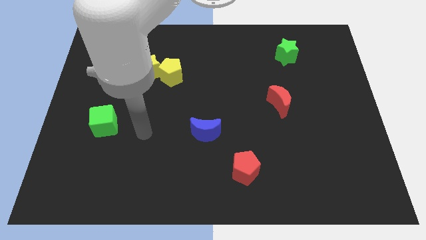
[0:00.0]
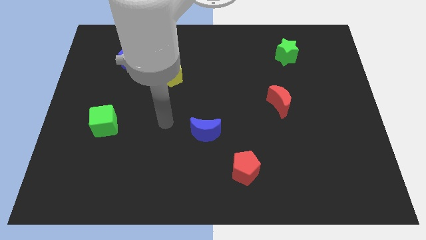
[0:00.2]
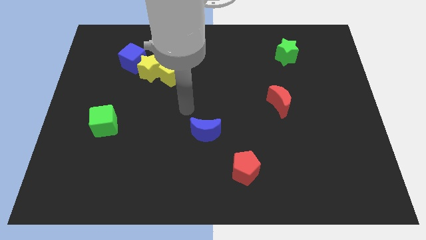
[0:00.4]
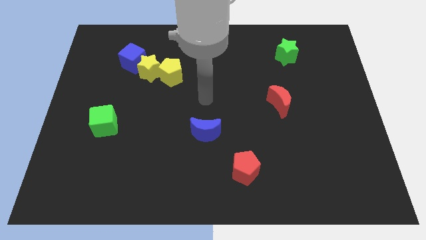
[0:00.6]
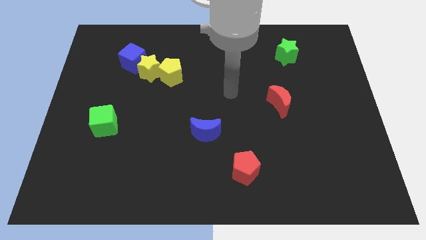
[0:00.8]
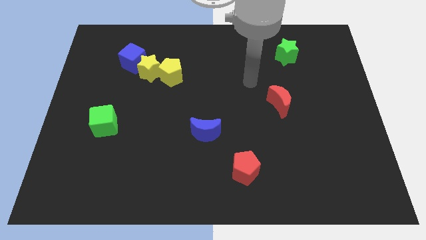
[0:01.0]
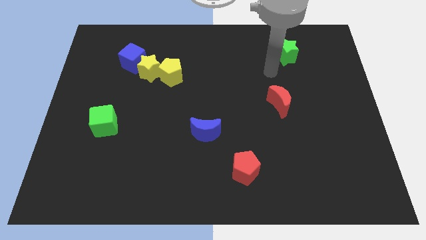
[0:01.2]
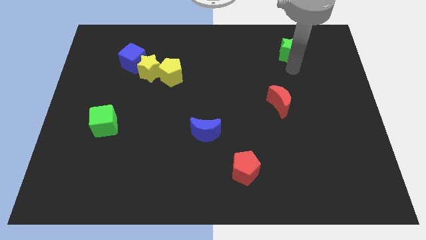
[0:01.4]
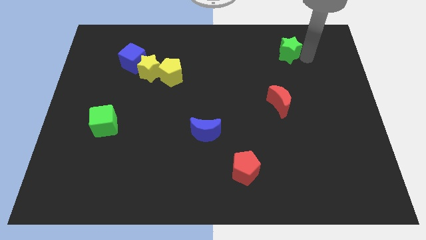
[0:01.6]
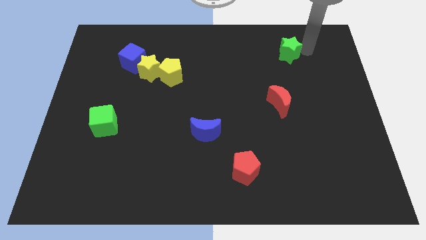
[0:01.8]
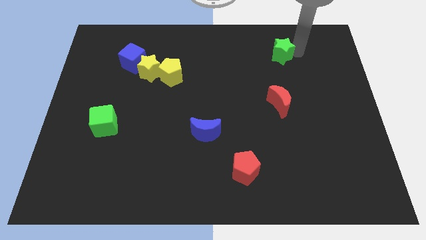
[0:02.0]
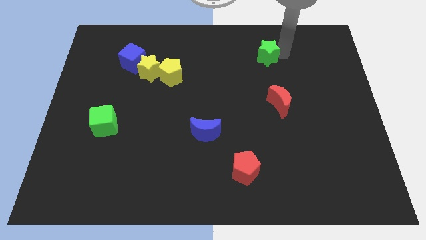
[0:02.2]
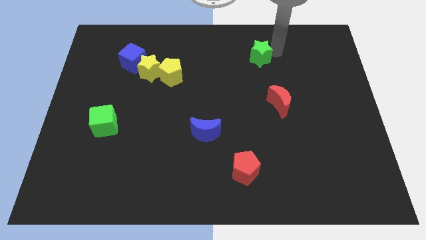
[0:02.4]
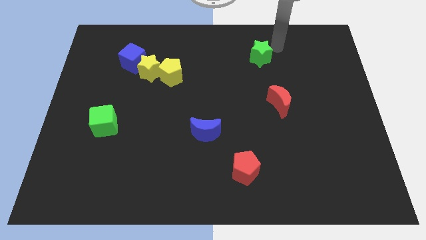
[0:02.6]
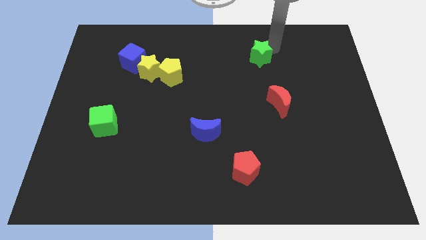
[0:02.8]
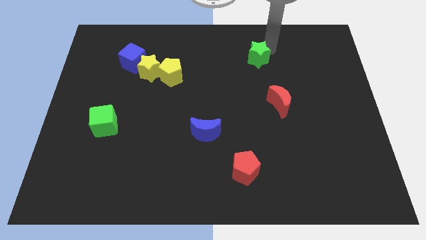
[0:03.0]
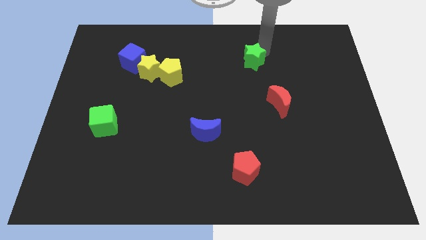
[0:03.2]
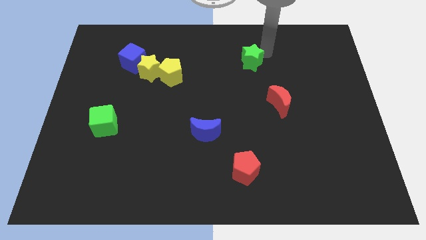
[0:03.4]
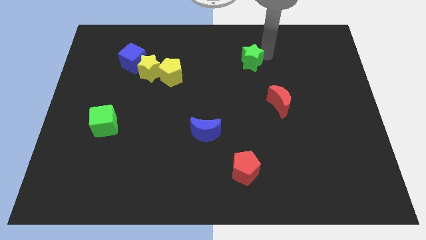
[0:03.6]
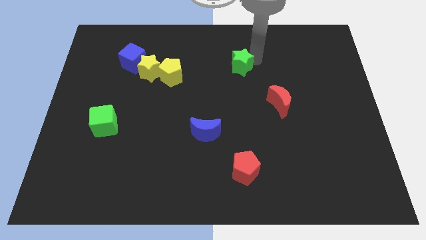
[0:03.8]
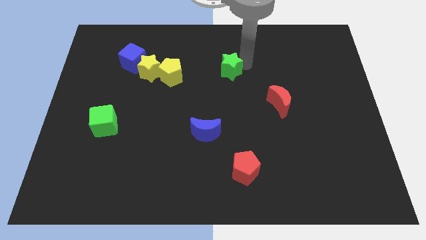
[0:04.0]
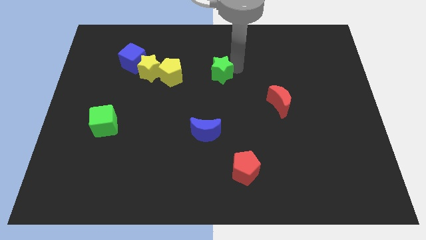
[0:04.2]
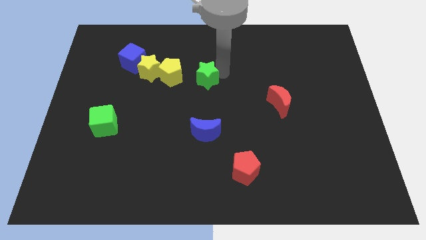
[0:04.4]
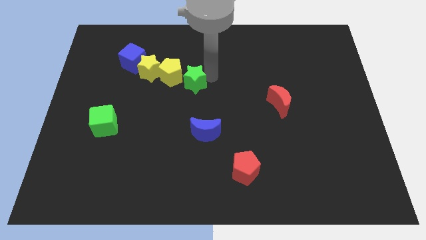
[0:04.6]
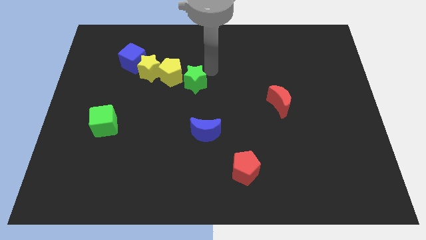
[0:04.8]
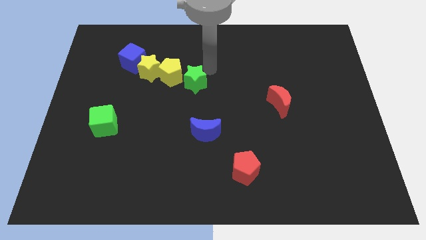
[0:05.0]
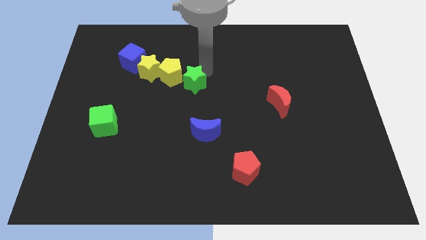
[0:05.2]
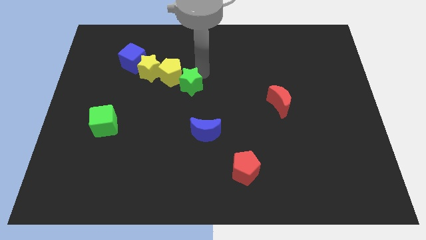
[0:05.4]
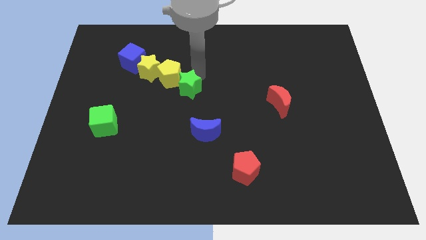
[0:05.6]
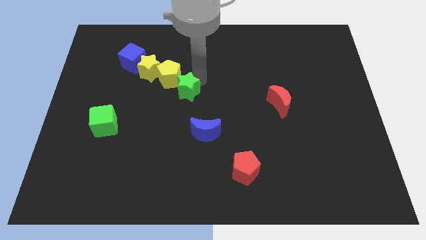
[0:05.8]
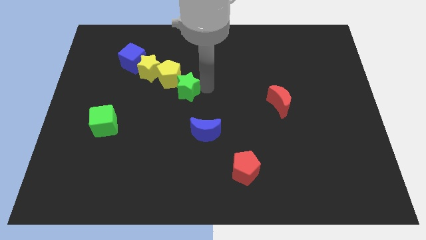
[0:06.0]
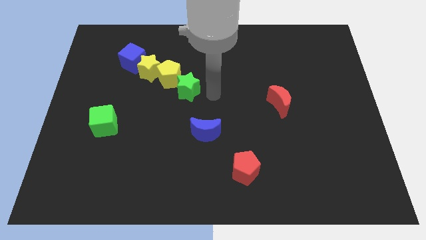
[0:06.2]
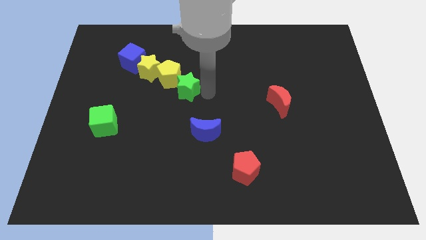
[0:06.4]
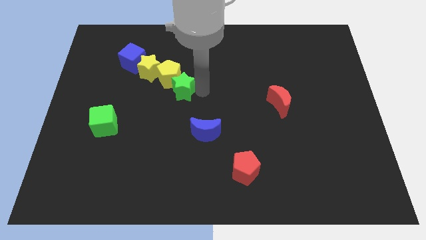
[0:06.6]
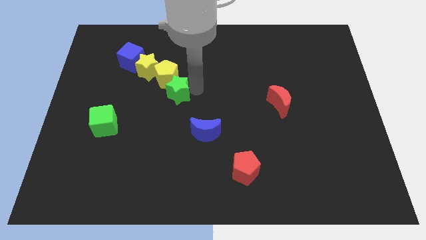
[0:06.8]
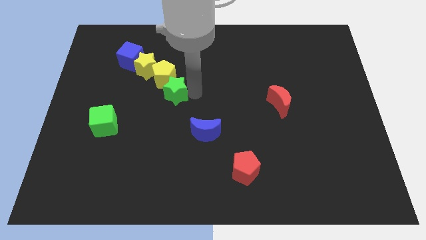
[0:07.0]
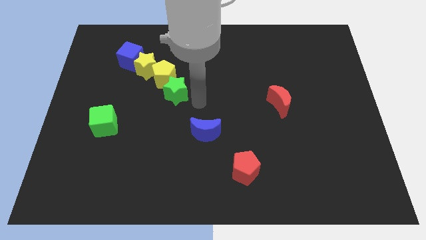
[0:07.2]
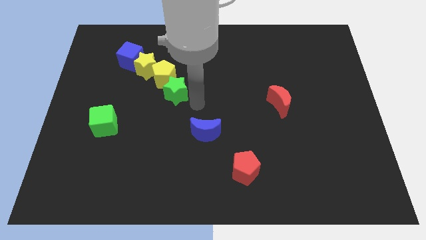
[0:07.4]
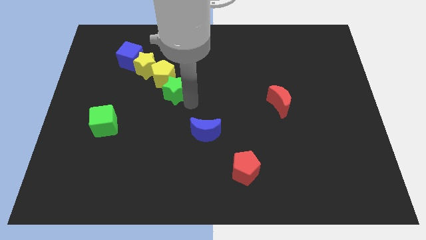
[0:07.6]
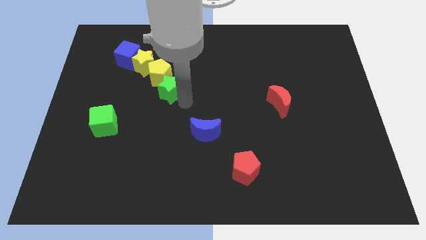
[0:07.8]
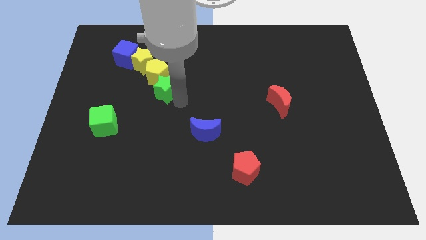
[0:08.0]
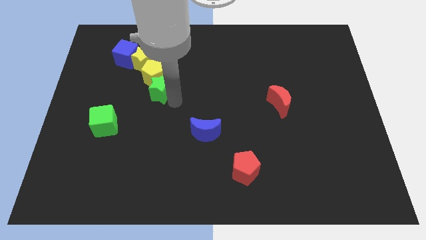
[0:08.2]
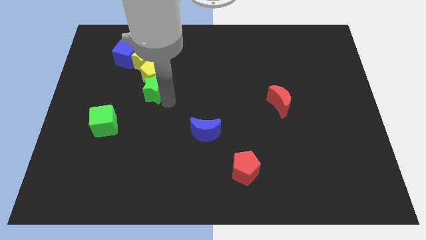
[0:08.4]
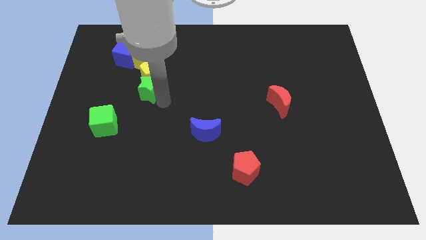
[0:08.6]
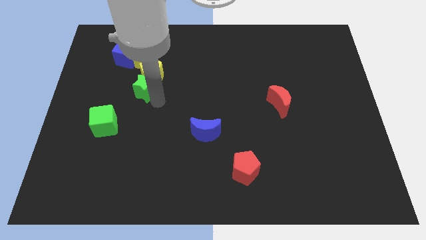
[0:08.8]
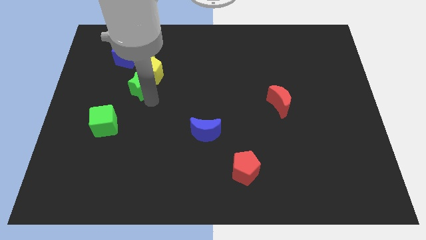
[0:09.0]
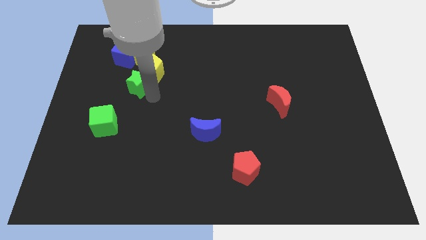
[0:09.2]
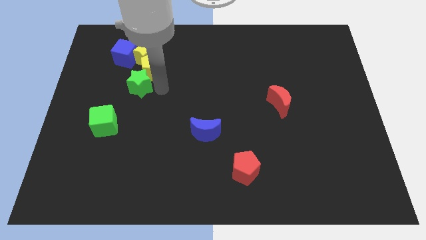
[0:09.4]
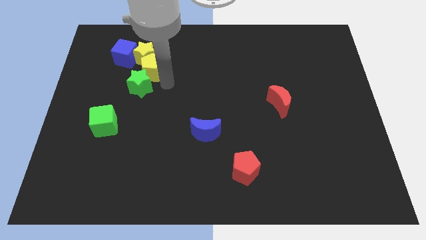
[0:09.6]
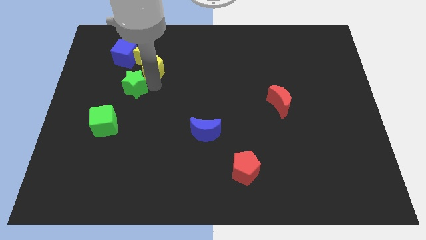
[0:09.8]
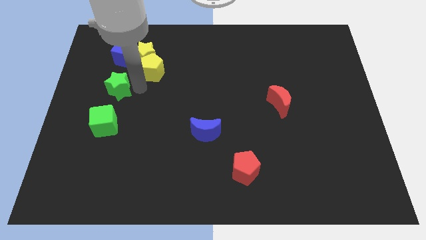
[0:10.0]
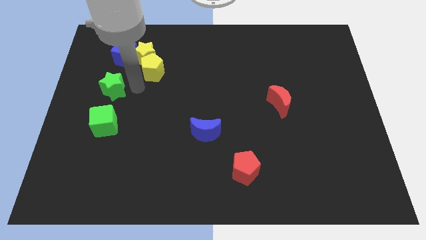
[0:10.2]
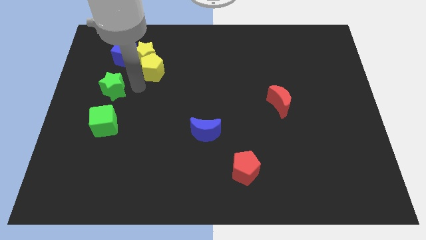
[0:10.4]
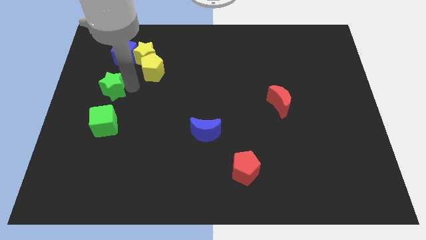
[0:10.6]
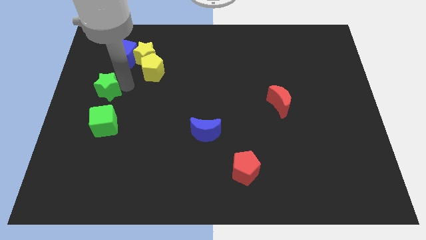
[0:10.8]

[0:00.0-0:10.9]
push the green star to the left side

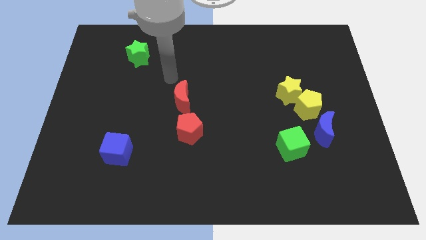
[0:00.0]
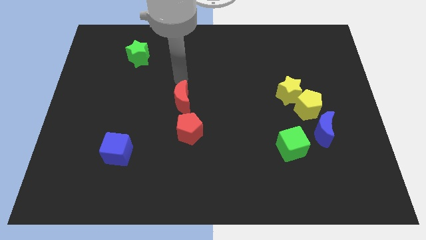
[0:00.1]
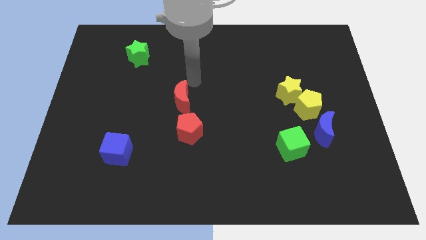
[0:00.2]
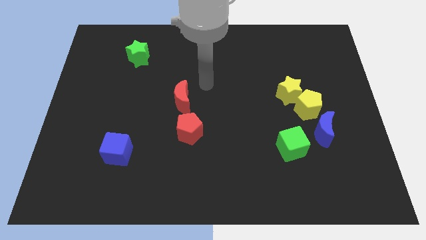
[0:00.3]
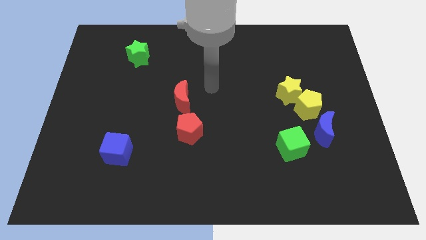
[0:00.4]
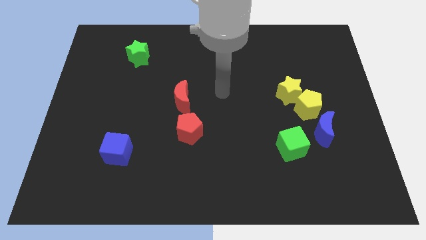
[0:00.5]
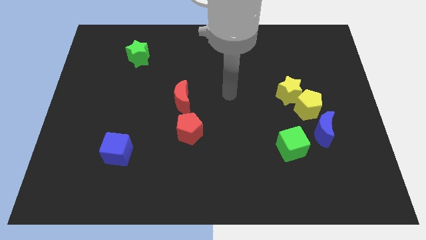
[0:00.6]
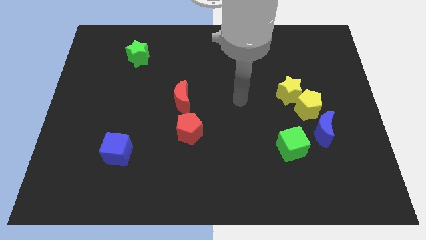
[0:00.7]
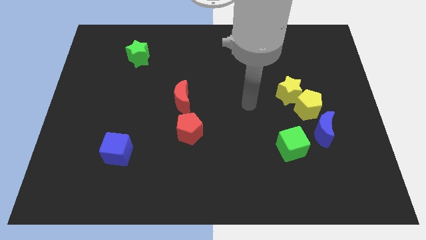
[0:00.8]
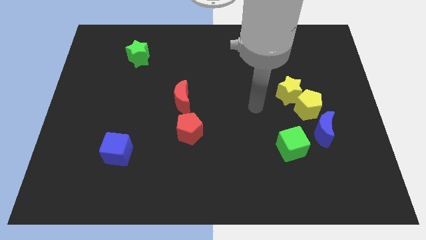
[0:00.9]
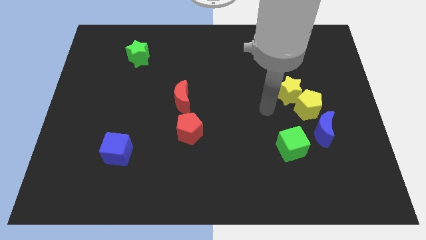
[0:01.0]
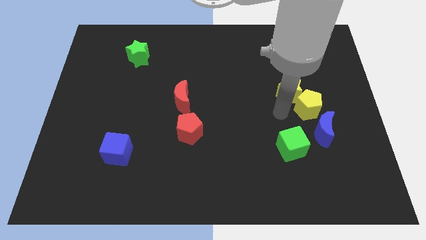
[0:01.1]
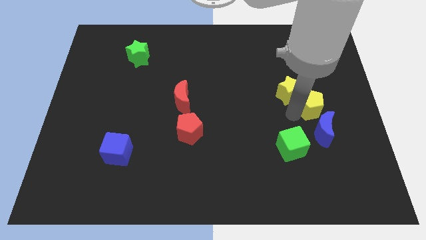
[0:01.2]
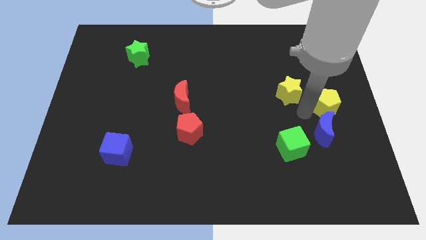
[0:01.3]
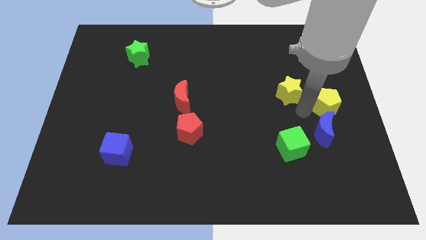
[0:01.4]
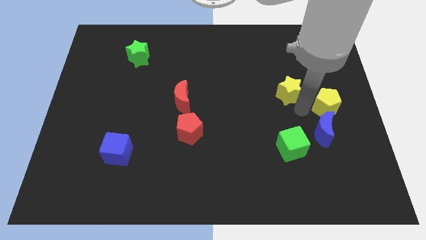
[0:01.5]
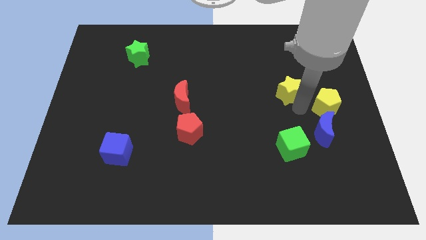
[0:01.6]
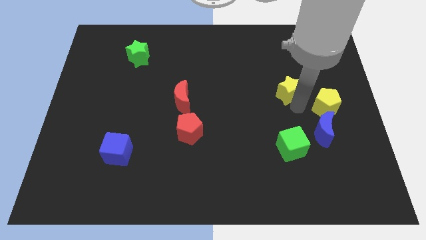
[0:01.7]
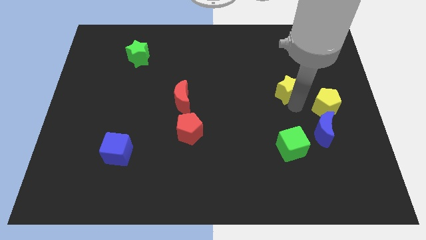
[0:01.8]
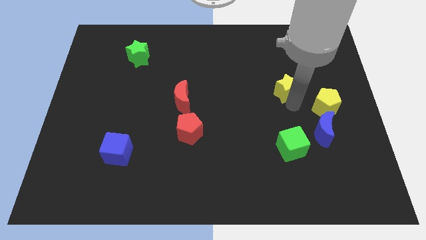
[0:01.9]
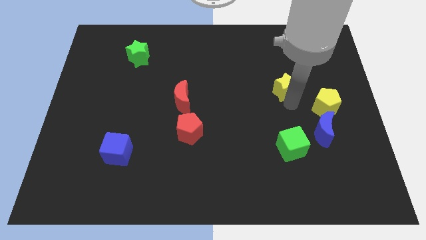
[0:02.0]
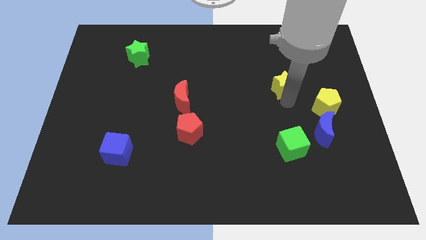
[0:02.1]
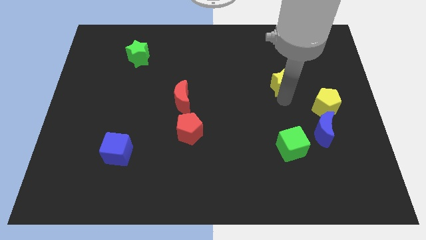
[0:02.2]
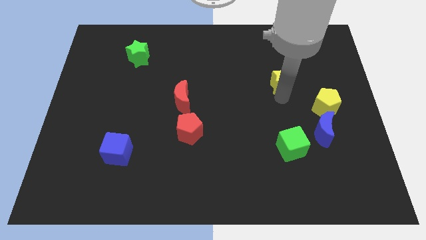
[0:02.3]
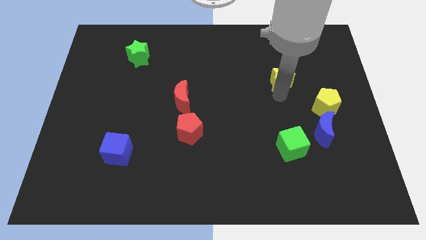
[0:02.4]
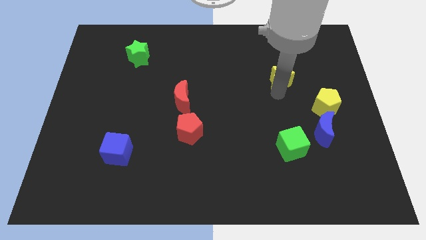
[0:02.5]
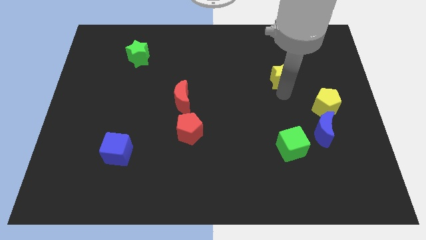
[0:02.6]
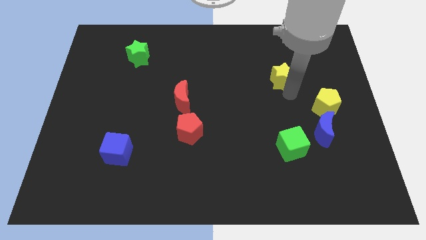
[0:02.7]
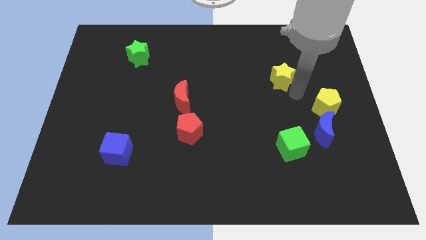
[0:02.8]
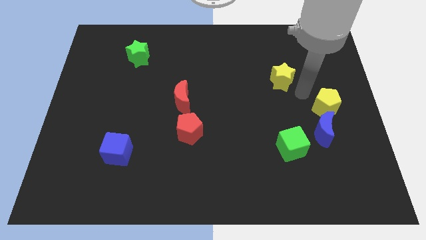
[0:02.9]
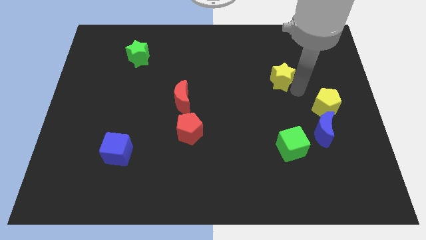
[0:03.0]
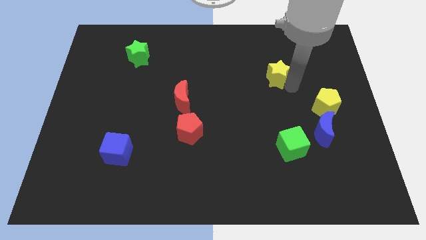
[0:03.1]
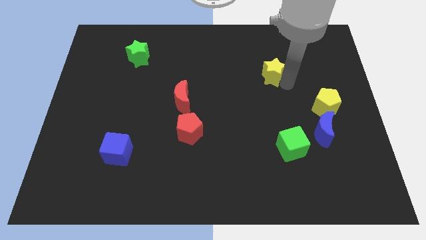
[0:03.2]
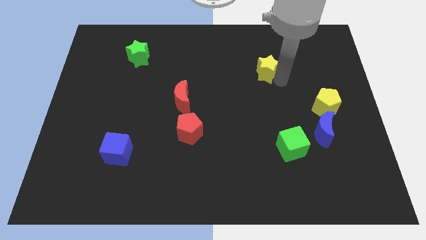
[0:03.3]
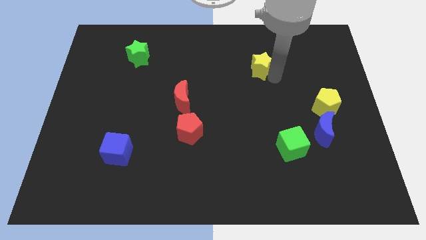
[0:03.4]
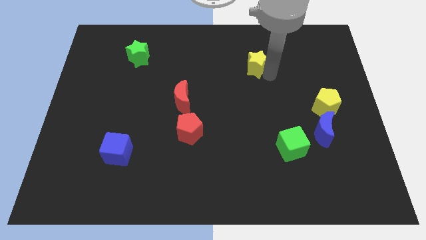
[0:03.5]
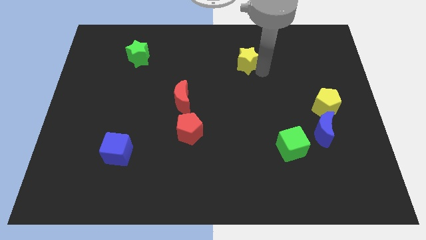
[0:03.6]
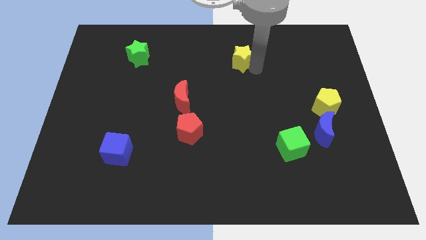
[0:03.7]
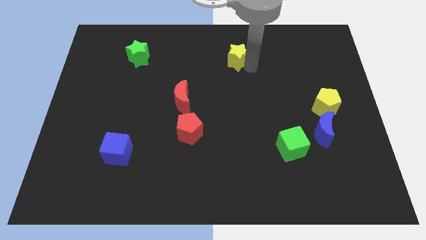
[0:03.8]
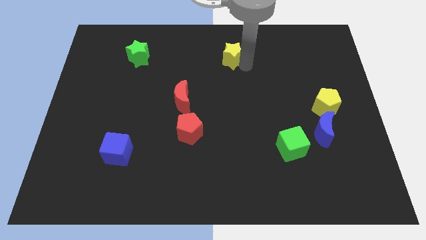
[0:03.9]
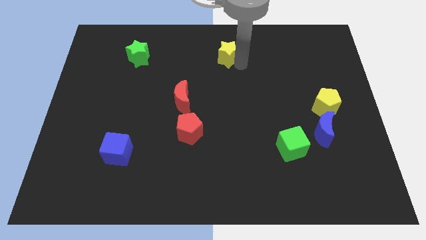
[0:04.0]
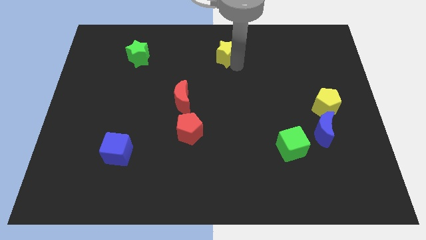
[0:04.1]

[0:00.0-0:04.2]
move the yellow star to the top side
